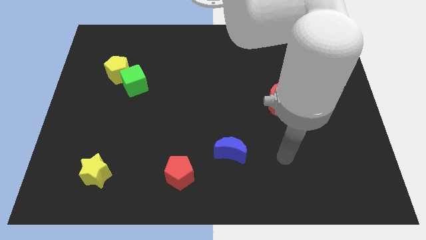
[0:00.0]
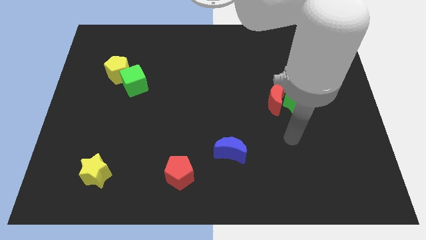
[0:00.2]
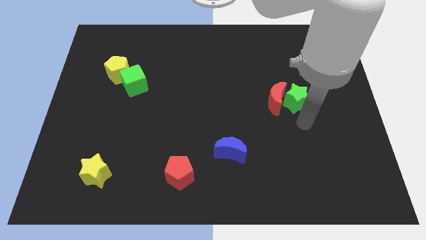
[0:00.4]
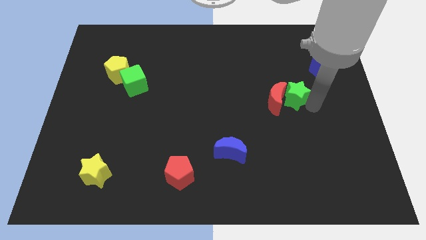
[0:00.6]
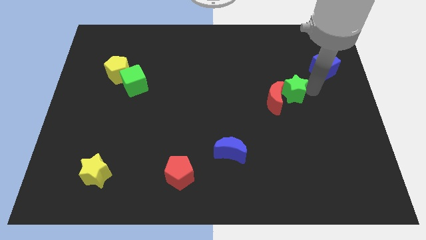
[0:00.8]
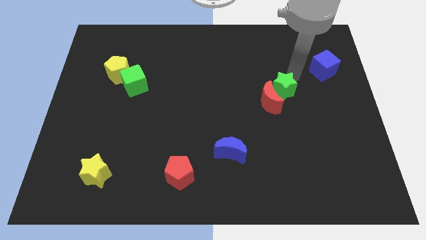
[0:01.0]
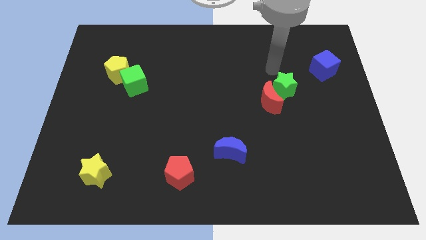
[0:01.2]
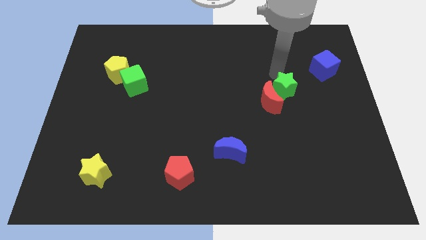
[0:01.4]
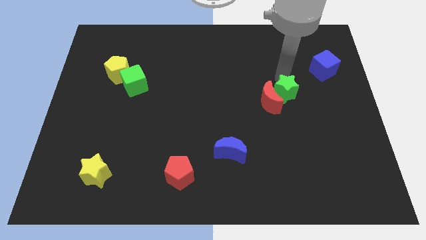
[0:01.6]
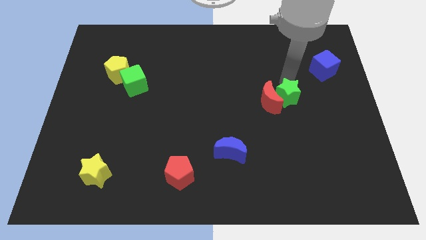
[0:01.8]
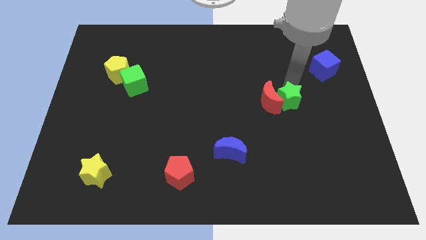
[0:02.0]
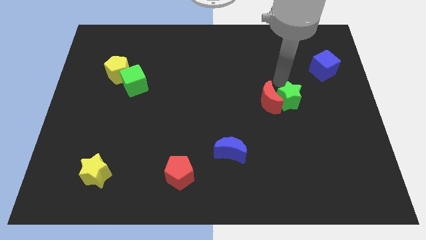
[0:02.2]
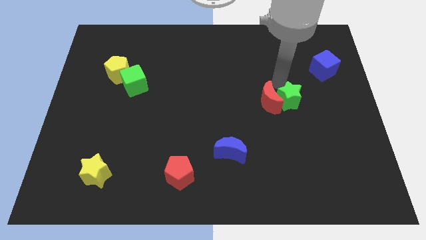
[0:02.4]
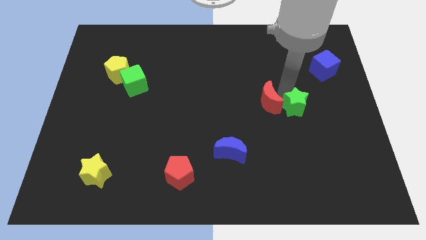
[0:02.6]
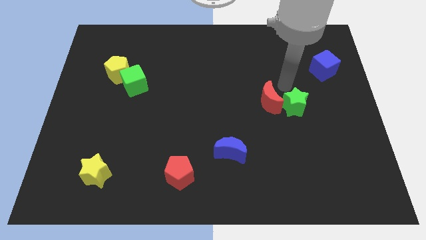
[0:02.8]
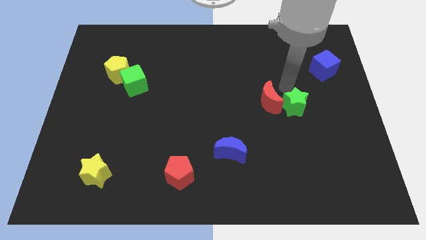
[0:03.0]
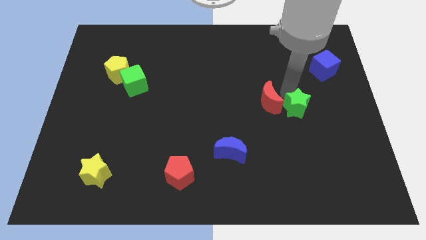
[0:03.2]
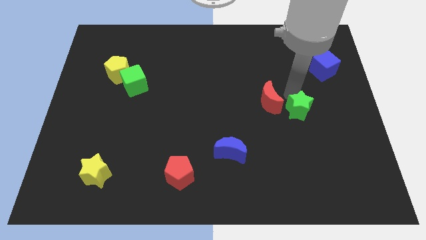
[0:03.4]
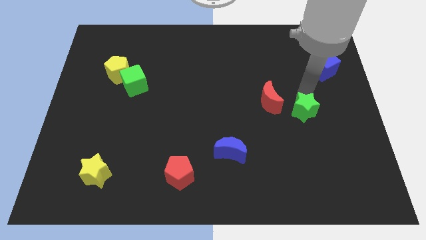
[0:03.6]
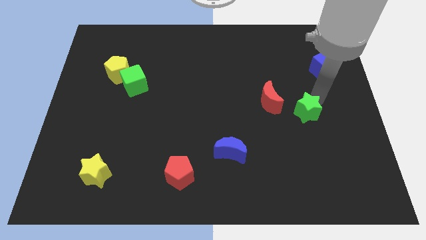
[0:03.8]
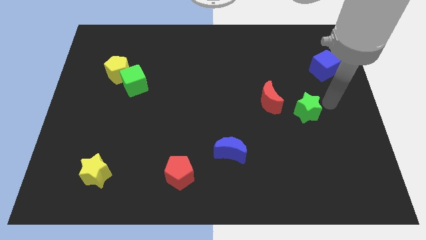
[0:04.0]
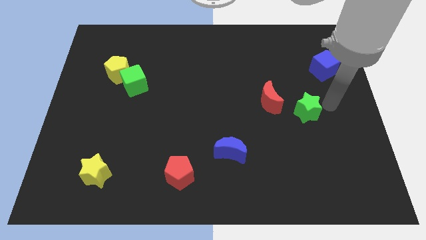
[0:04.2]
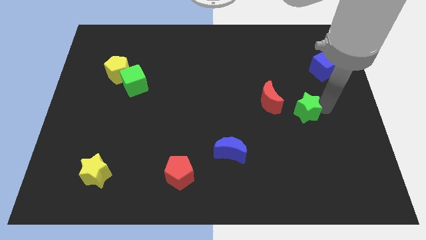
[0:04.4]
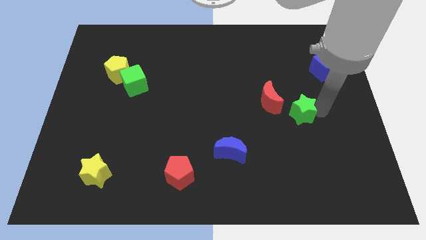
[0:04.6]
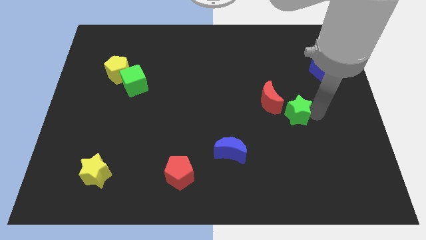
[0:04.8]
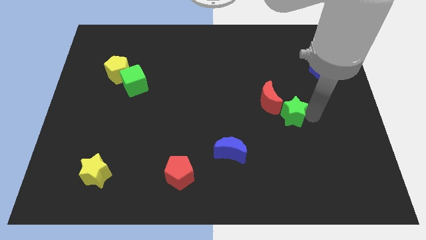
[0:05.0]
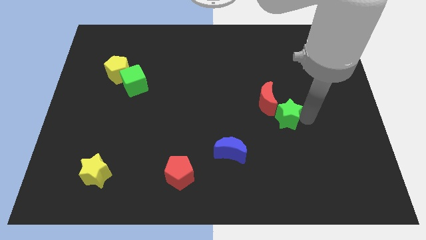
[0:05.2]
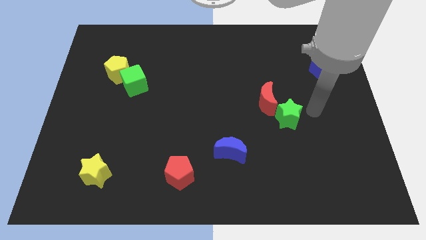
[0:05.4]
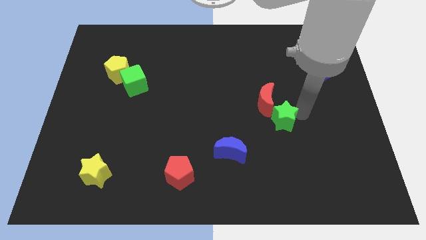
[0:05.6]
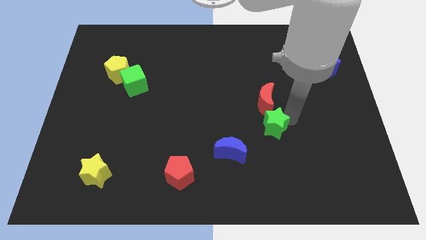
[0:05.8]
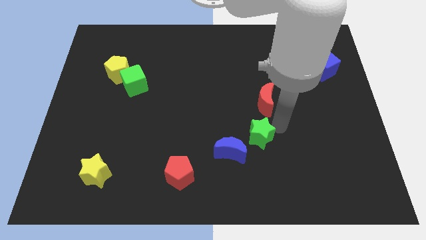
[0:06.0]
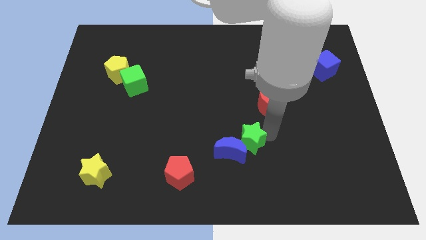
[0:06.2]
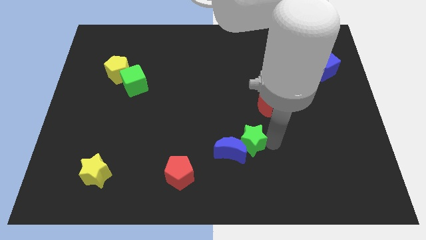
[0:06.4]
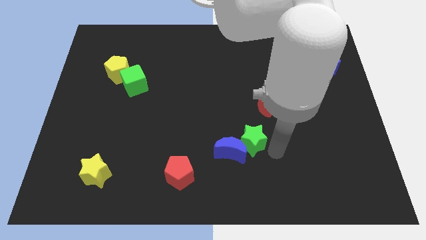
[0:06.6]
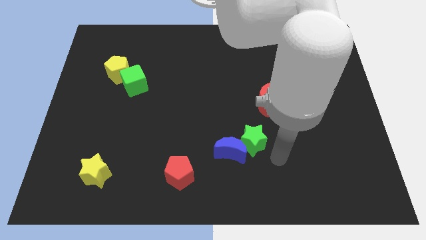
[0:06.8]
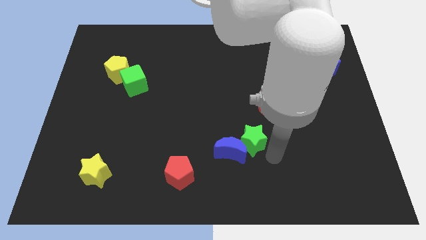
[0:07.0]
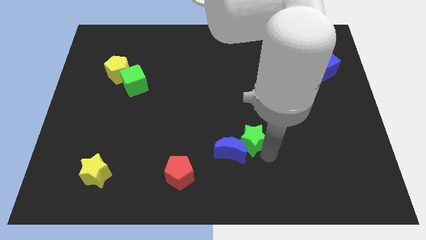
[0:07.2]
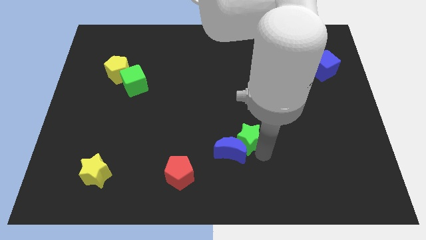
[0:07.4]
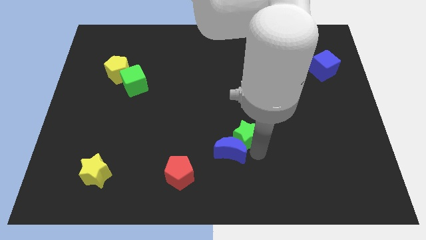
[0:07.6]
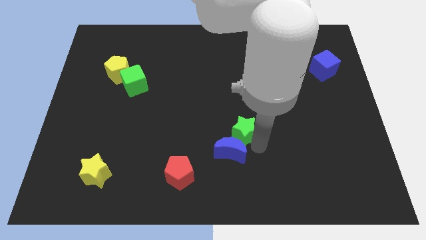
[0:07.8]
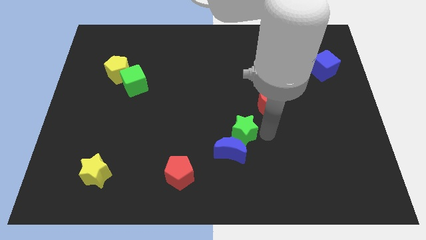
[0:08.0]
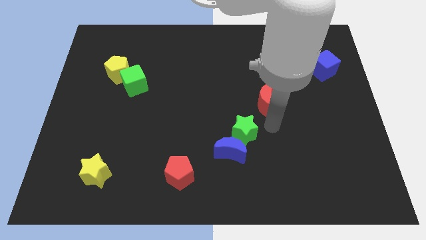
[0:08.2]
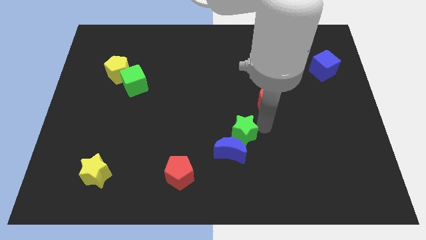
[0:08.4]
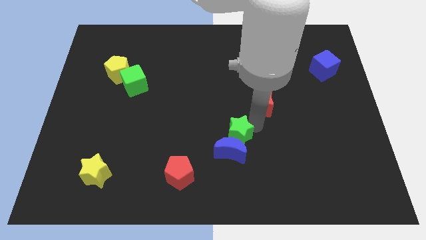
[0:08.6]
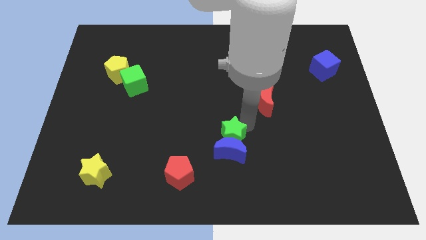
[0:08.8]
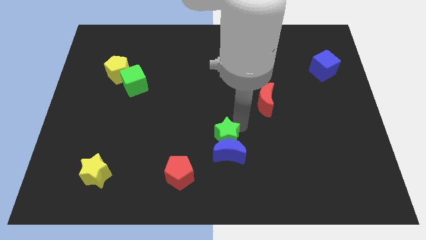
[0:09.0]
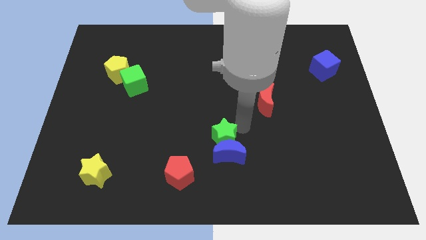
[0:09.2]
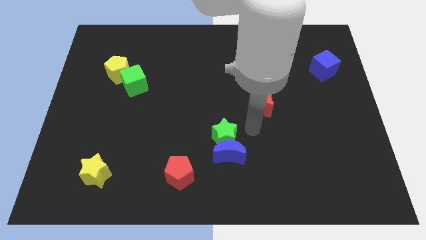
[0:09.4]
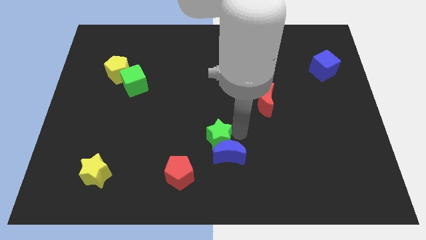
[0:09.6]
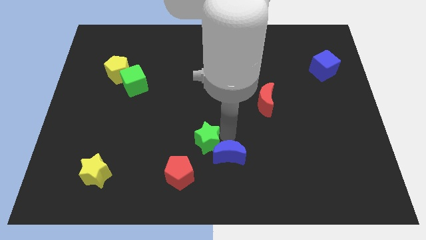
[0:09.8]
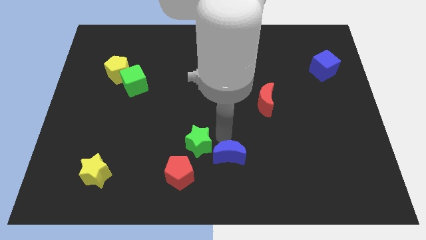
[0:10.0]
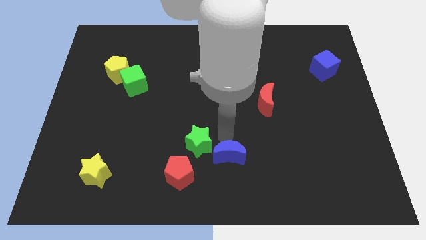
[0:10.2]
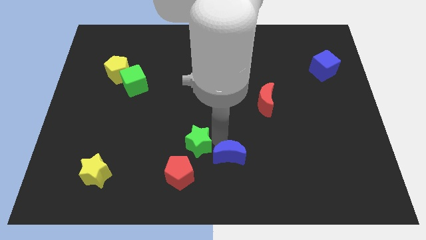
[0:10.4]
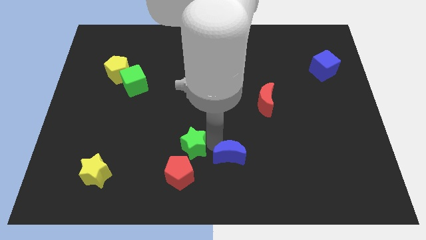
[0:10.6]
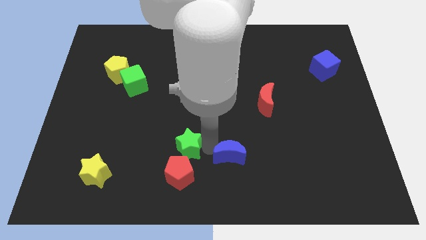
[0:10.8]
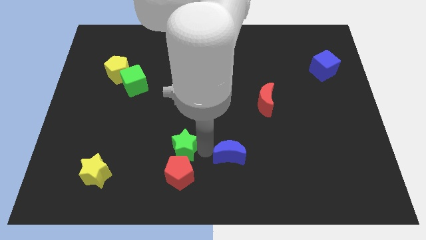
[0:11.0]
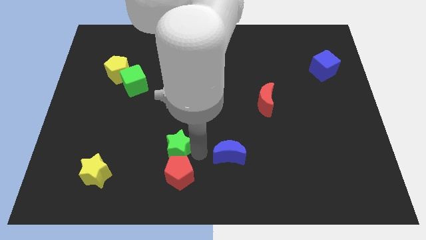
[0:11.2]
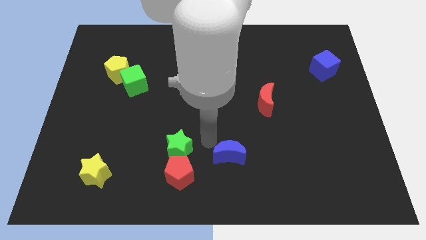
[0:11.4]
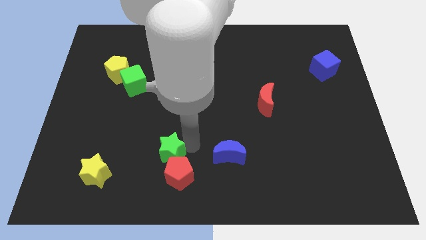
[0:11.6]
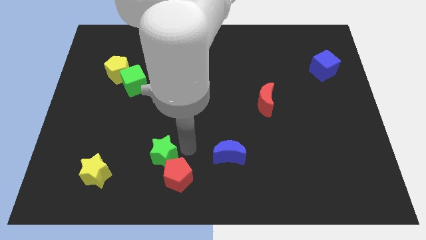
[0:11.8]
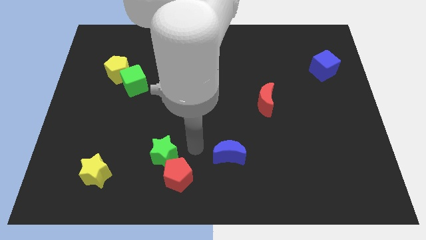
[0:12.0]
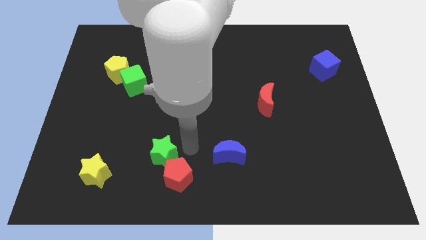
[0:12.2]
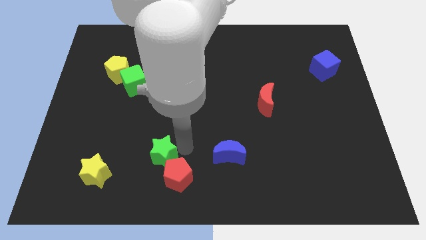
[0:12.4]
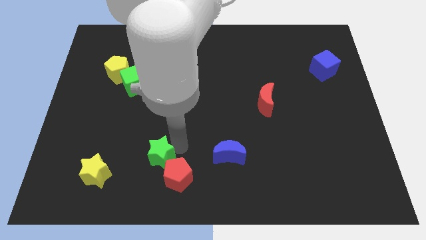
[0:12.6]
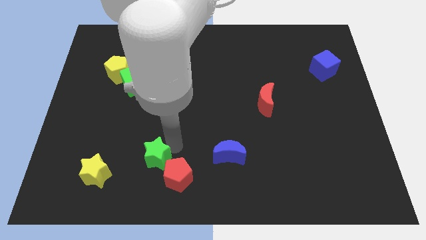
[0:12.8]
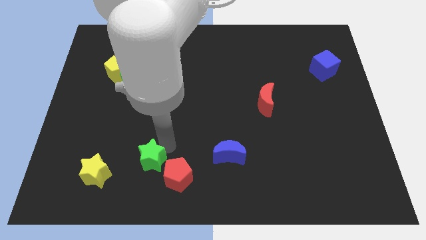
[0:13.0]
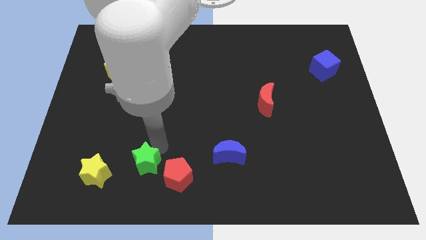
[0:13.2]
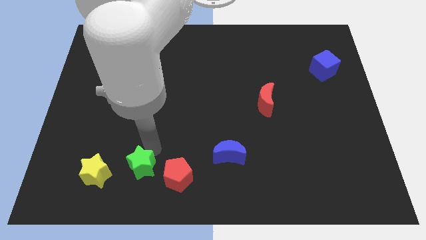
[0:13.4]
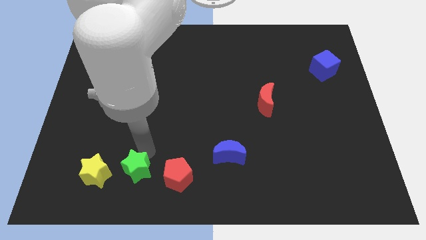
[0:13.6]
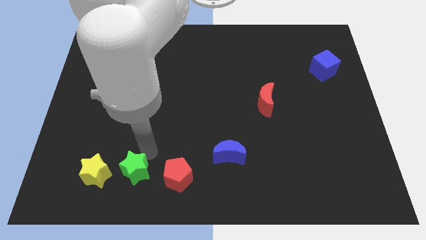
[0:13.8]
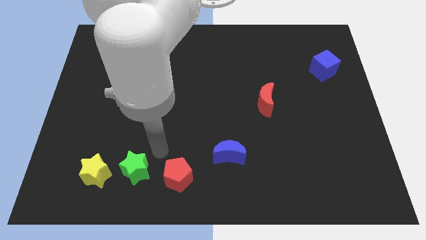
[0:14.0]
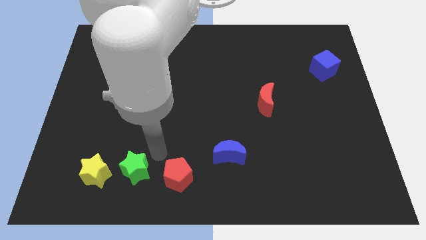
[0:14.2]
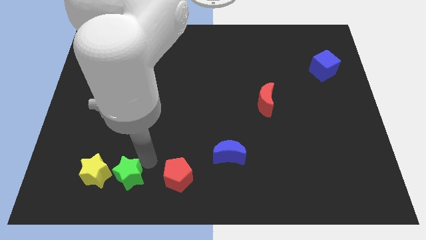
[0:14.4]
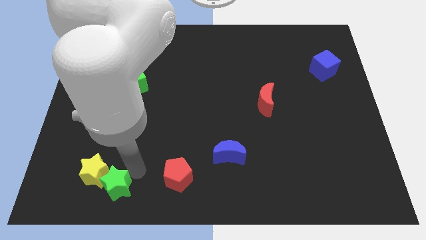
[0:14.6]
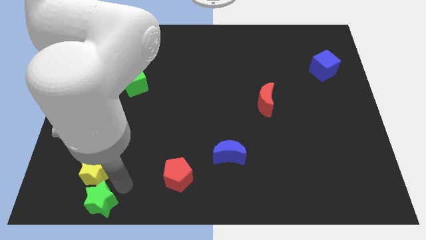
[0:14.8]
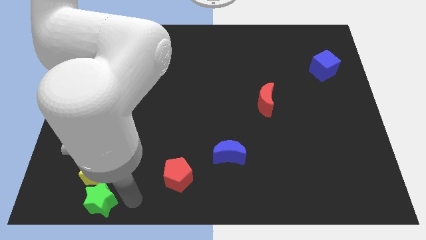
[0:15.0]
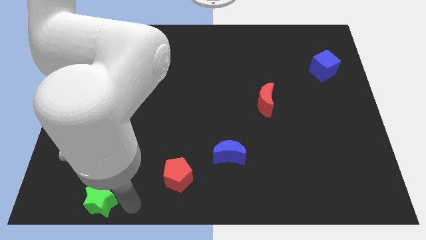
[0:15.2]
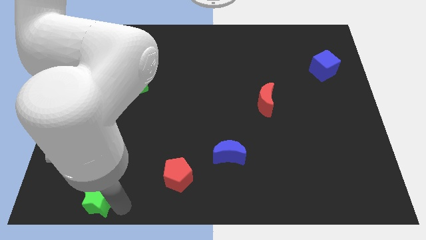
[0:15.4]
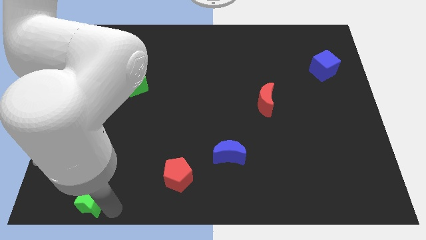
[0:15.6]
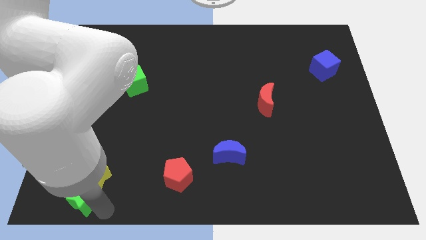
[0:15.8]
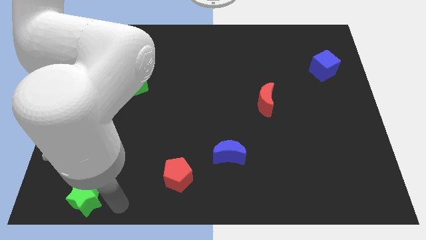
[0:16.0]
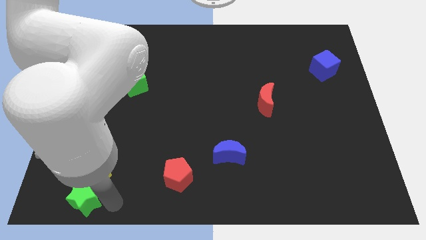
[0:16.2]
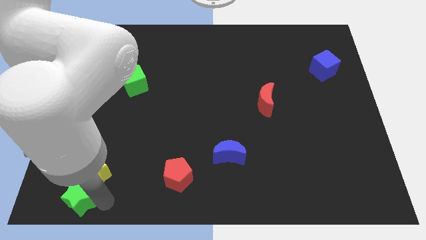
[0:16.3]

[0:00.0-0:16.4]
move the green star to the bottom left
